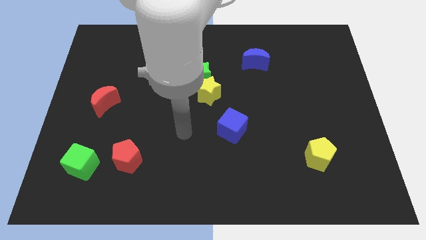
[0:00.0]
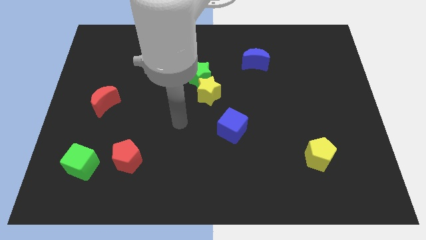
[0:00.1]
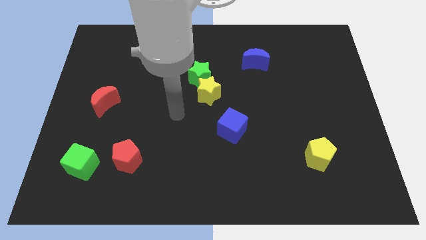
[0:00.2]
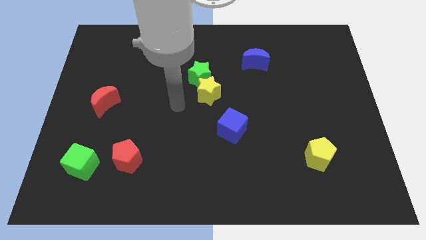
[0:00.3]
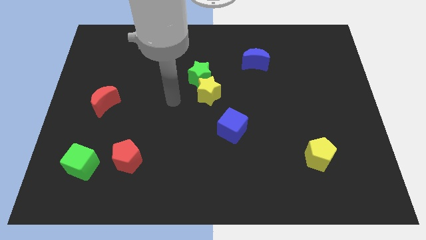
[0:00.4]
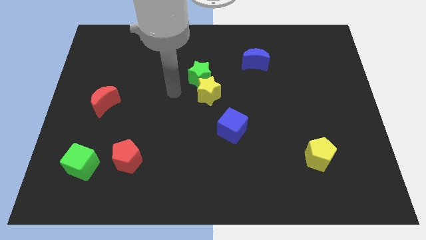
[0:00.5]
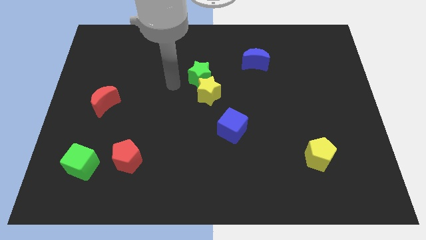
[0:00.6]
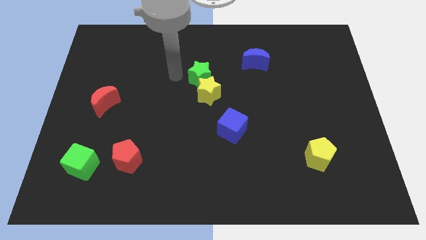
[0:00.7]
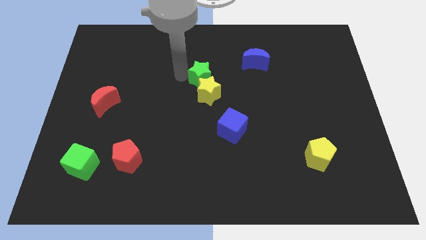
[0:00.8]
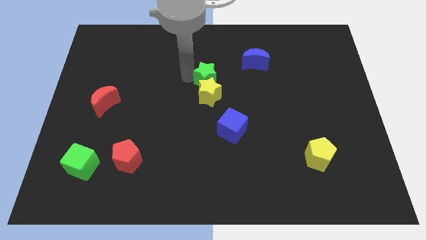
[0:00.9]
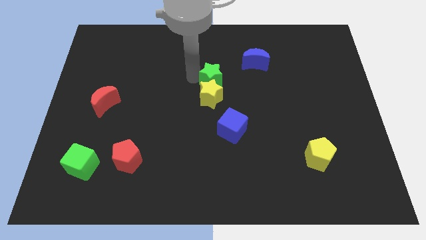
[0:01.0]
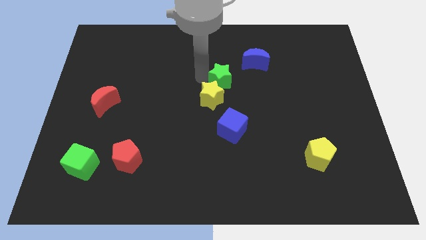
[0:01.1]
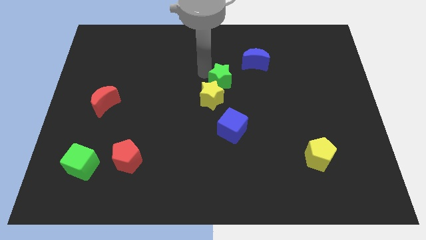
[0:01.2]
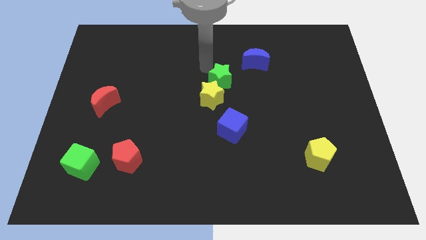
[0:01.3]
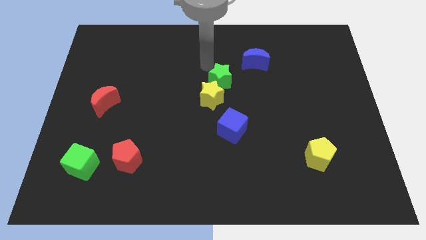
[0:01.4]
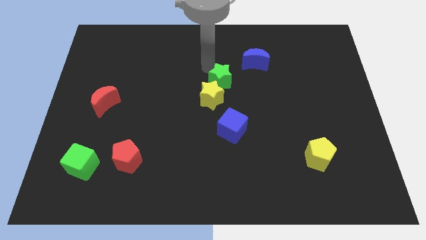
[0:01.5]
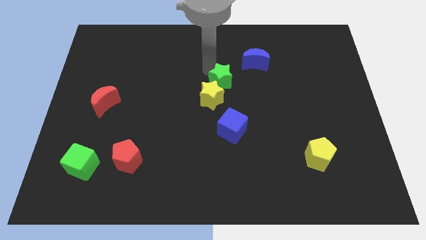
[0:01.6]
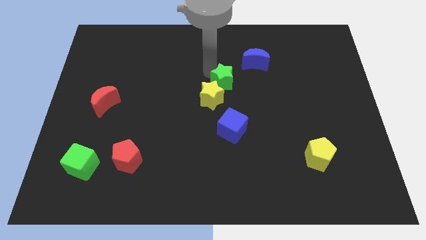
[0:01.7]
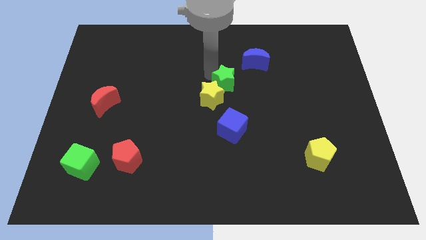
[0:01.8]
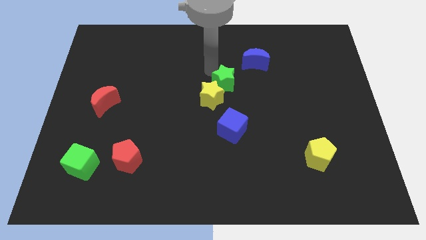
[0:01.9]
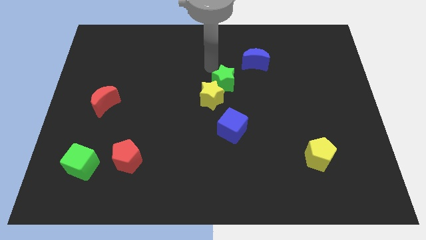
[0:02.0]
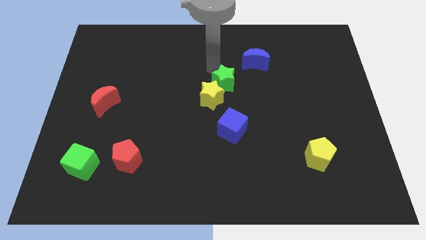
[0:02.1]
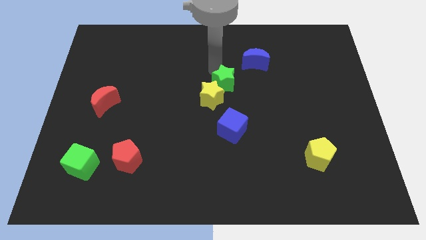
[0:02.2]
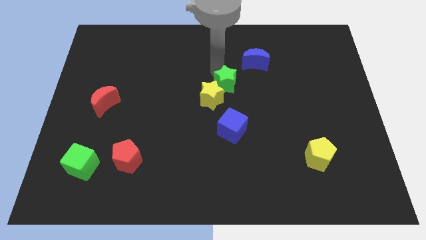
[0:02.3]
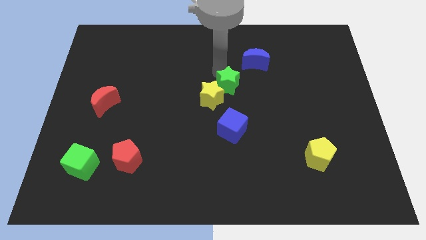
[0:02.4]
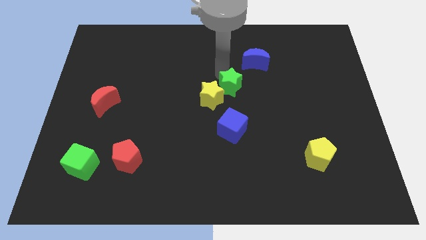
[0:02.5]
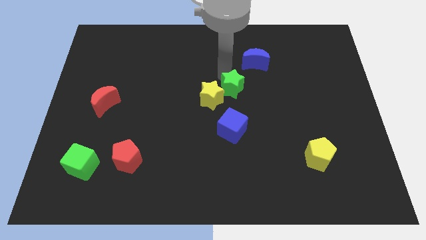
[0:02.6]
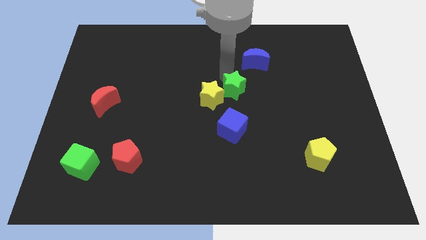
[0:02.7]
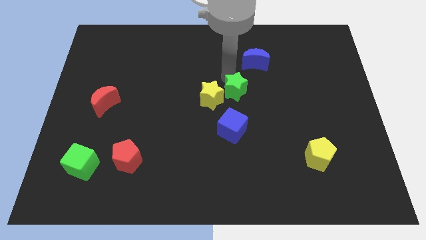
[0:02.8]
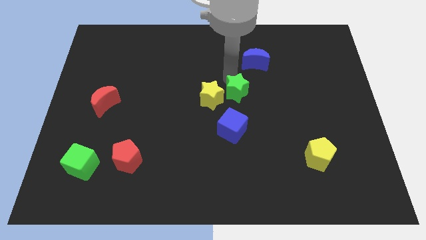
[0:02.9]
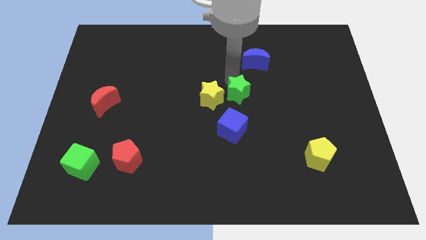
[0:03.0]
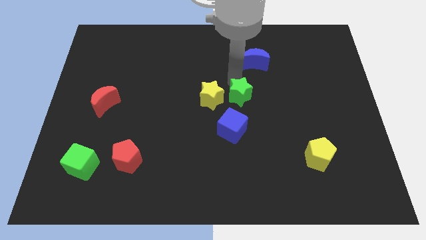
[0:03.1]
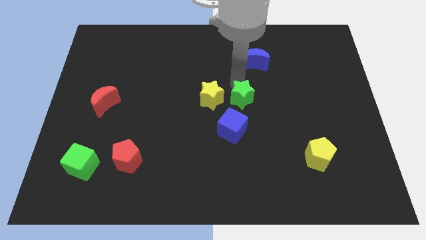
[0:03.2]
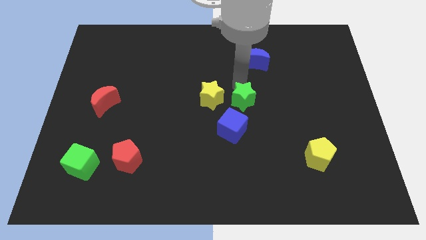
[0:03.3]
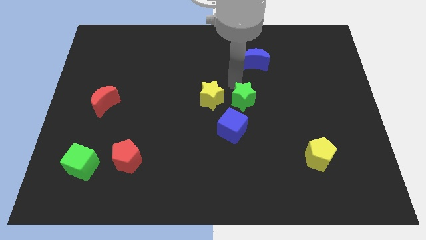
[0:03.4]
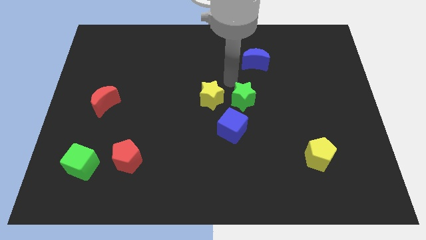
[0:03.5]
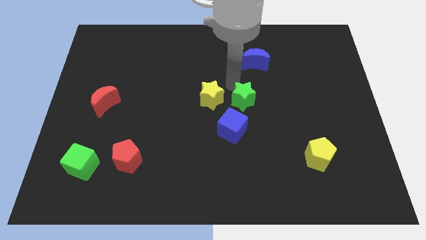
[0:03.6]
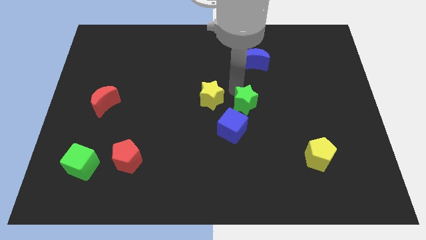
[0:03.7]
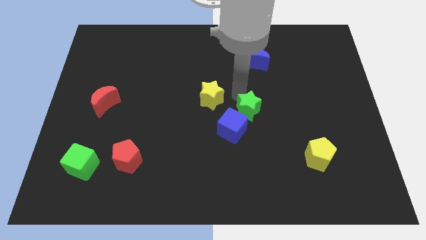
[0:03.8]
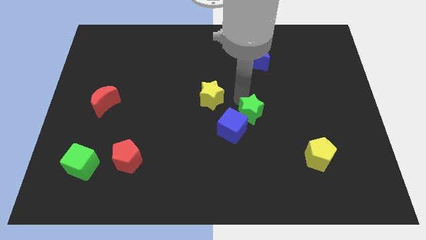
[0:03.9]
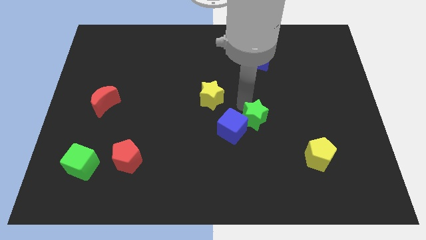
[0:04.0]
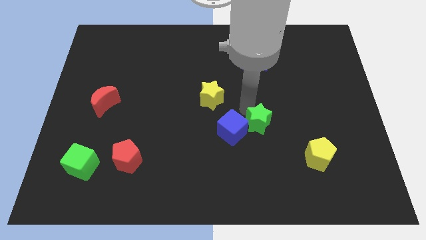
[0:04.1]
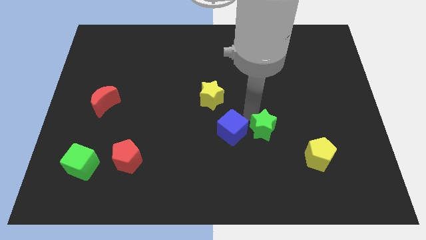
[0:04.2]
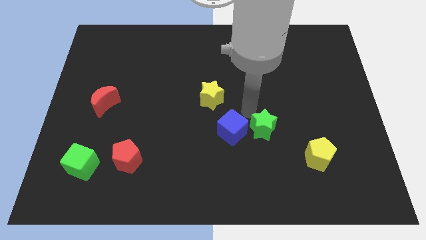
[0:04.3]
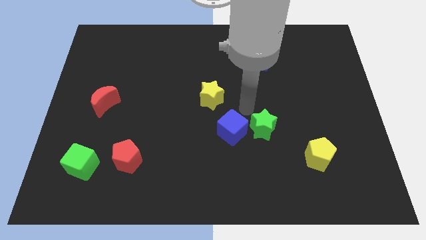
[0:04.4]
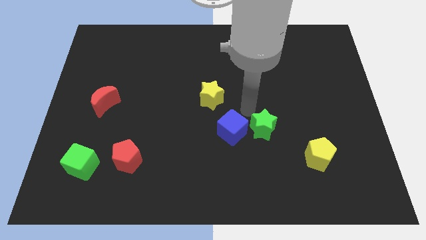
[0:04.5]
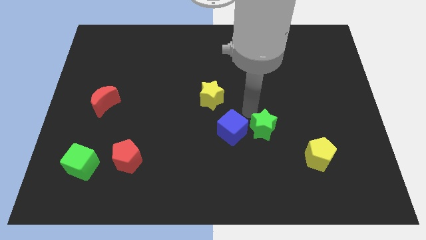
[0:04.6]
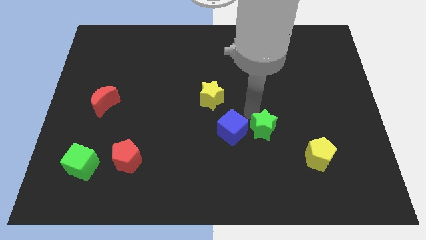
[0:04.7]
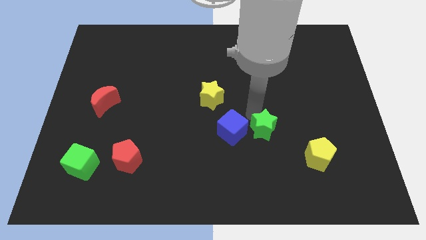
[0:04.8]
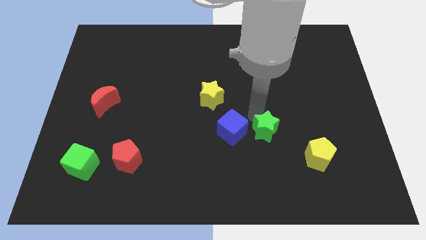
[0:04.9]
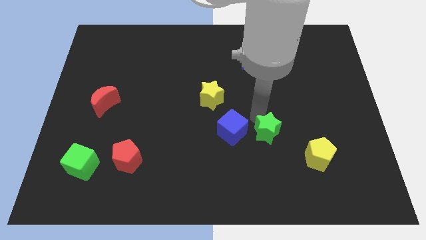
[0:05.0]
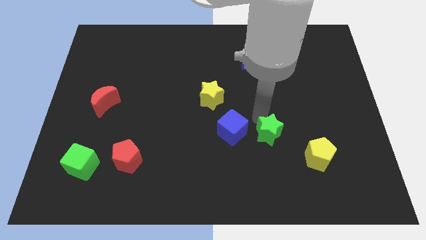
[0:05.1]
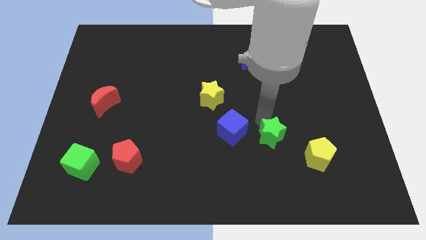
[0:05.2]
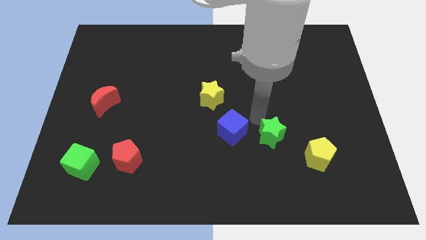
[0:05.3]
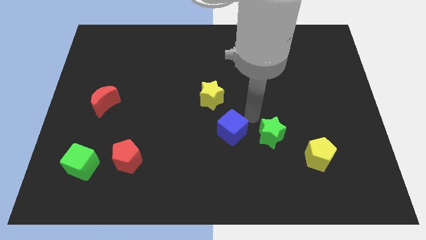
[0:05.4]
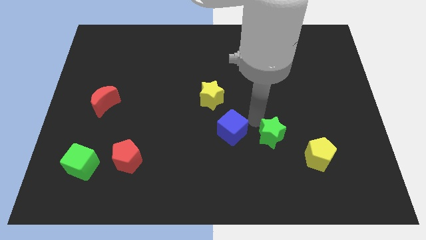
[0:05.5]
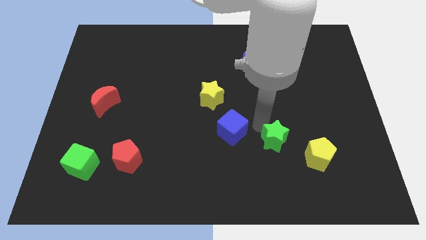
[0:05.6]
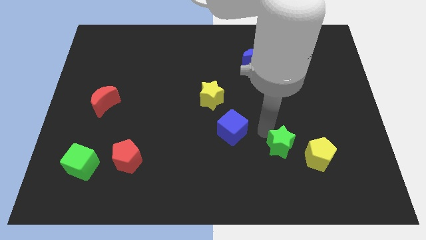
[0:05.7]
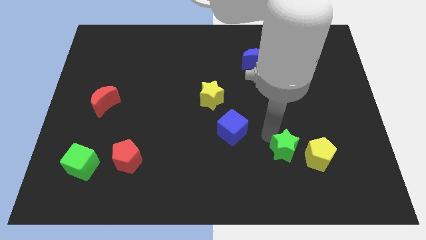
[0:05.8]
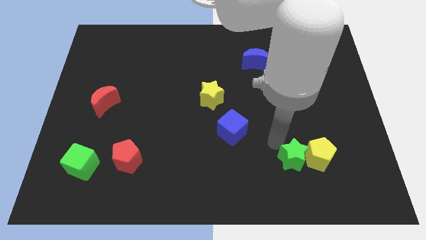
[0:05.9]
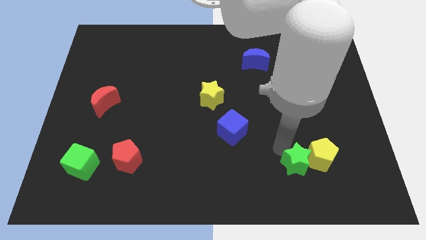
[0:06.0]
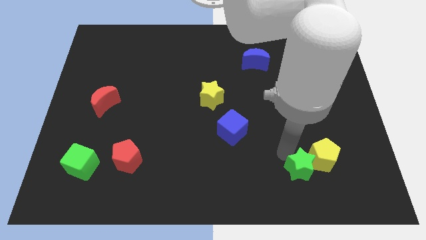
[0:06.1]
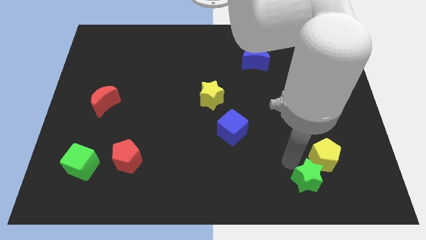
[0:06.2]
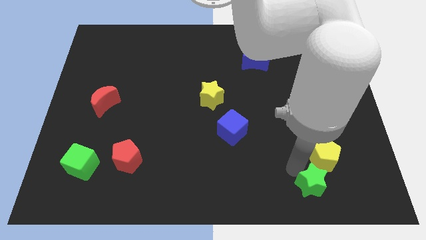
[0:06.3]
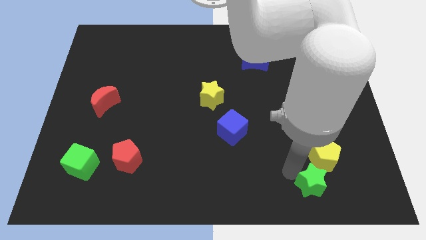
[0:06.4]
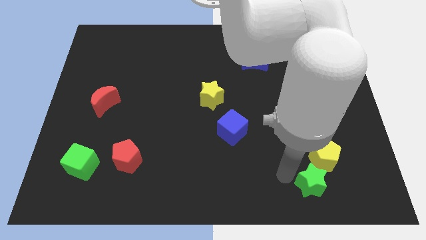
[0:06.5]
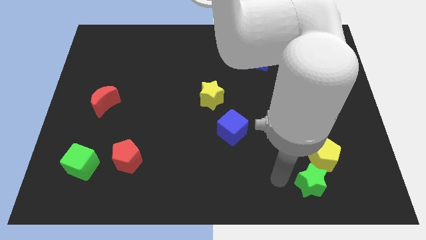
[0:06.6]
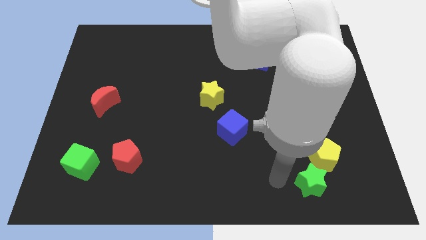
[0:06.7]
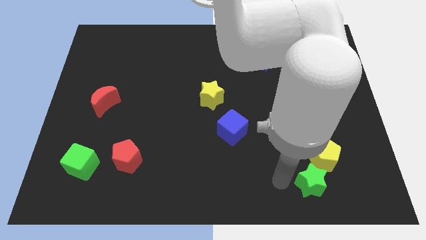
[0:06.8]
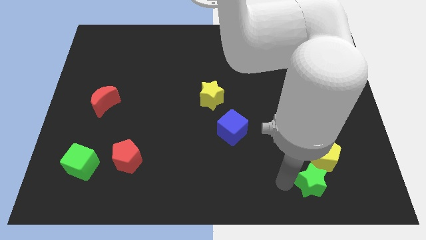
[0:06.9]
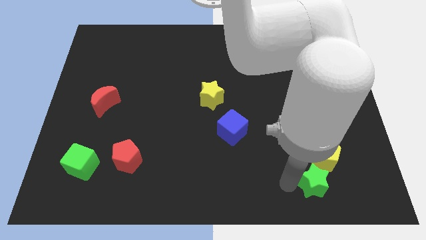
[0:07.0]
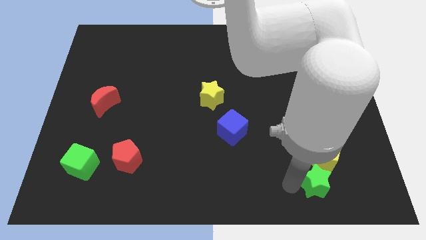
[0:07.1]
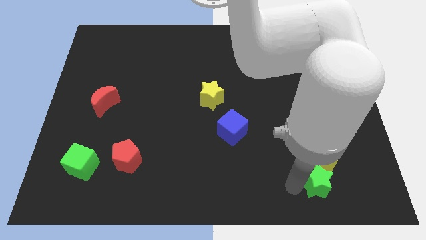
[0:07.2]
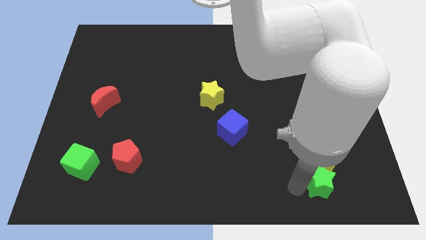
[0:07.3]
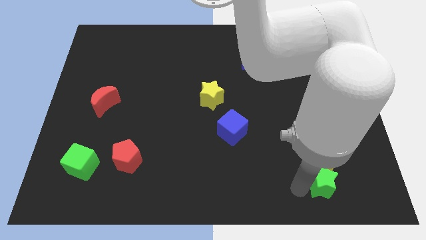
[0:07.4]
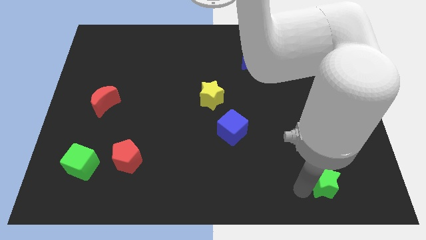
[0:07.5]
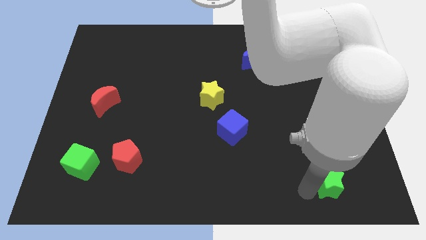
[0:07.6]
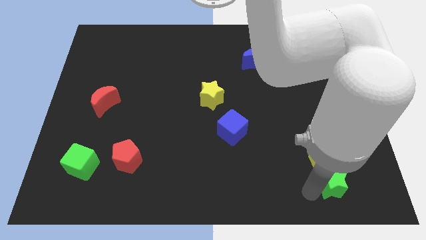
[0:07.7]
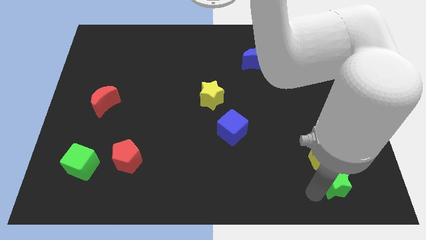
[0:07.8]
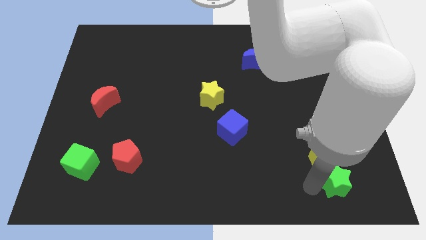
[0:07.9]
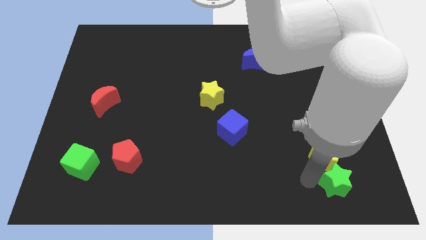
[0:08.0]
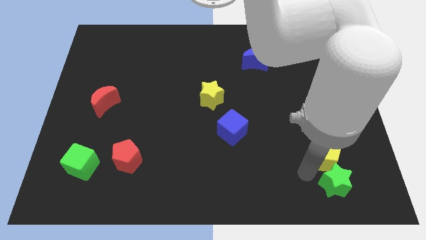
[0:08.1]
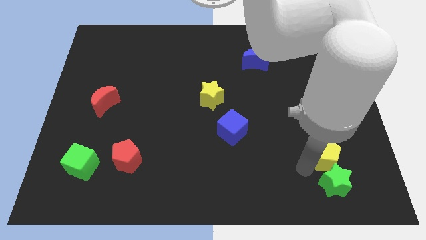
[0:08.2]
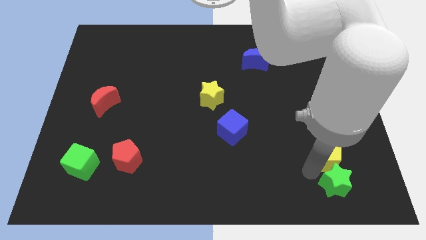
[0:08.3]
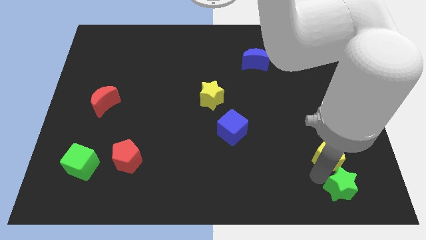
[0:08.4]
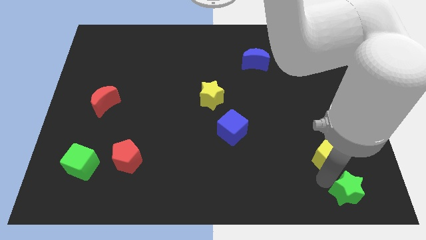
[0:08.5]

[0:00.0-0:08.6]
push the green star to the bottom right corner
